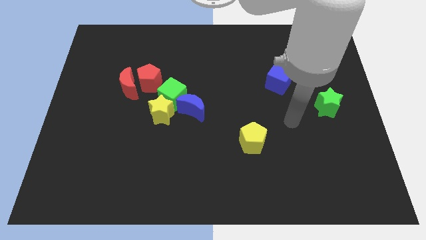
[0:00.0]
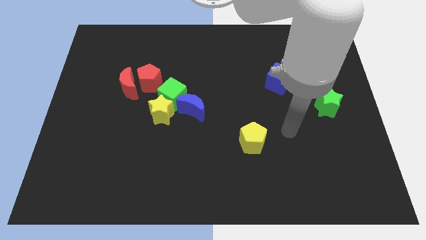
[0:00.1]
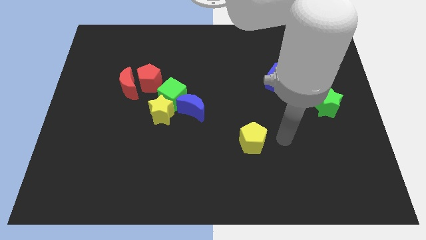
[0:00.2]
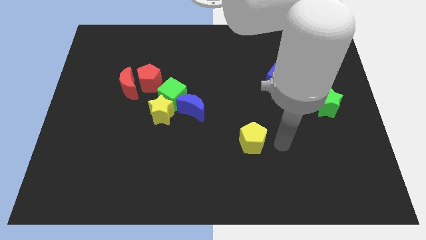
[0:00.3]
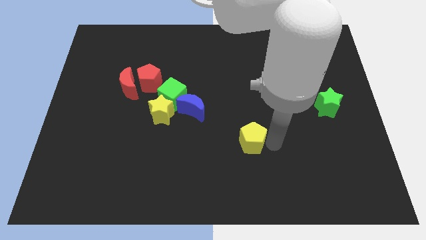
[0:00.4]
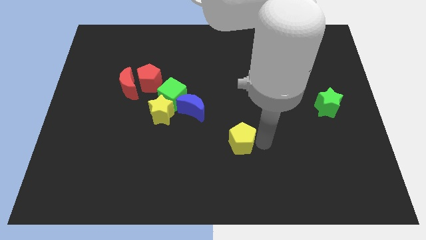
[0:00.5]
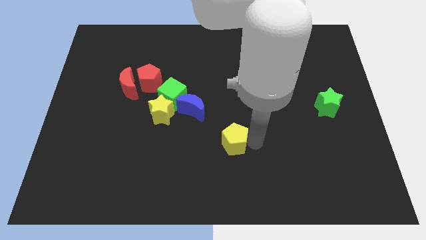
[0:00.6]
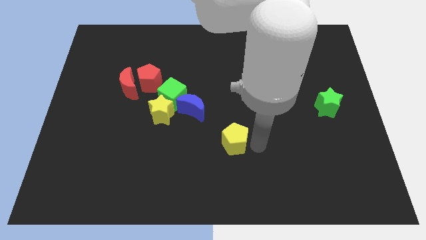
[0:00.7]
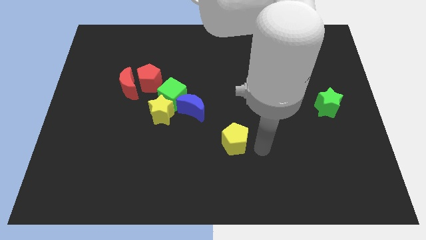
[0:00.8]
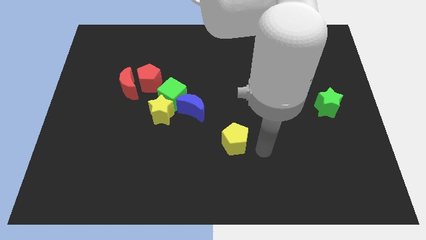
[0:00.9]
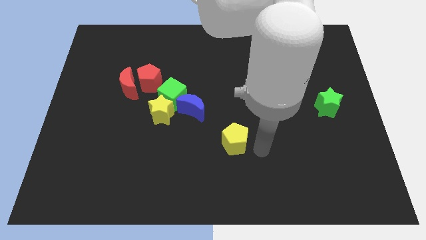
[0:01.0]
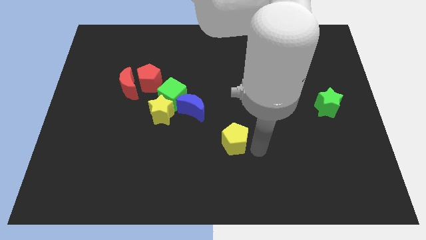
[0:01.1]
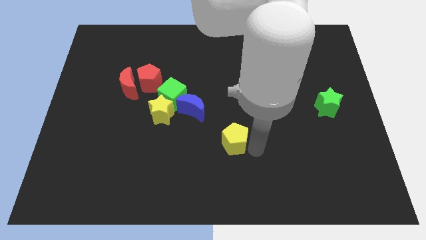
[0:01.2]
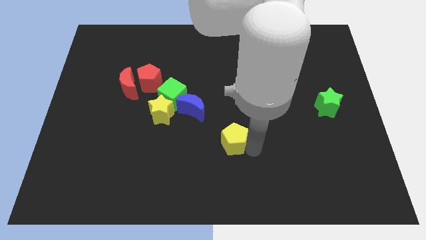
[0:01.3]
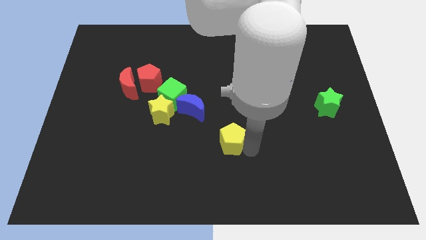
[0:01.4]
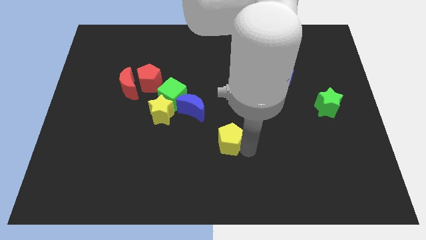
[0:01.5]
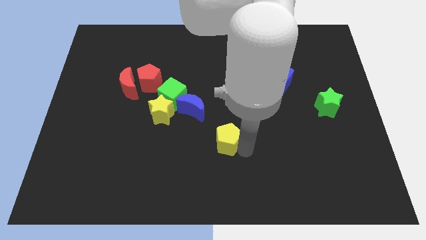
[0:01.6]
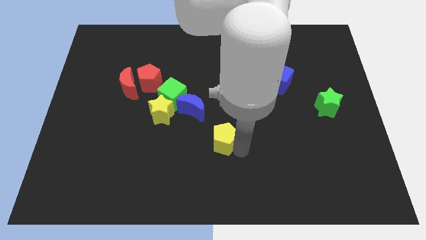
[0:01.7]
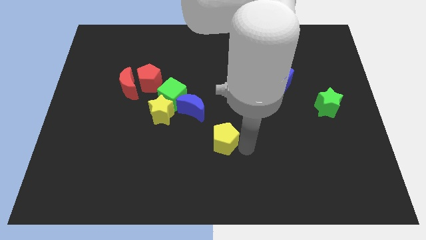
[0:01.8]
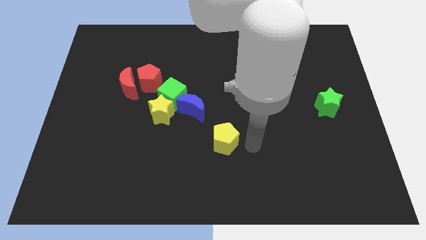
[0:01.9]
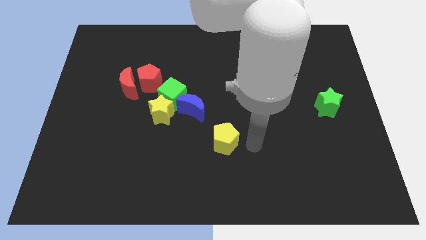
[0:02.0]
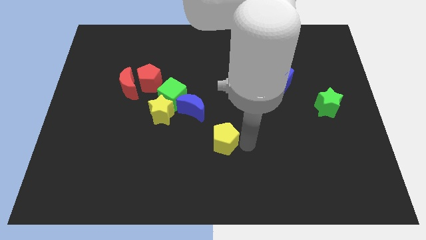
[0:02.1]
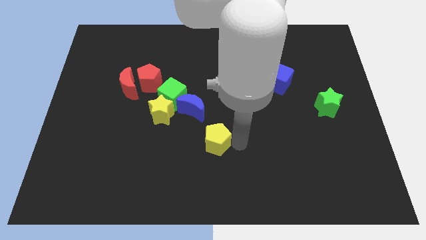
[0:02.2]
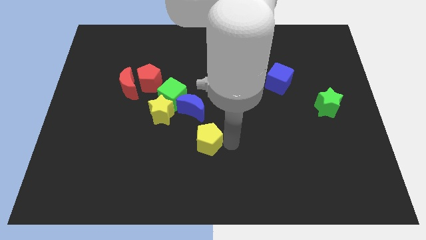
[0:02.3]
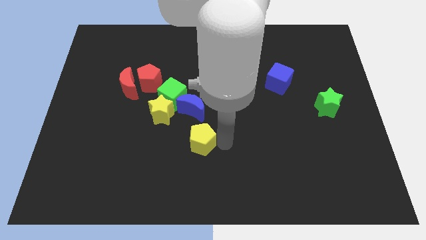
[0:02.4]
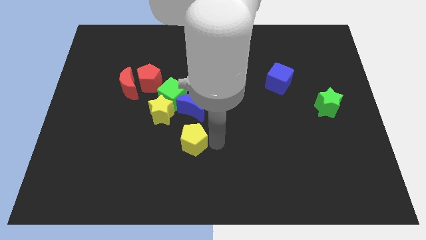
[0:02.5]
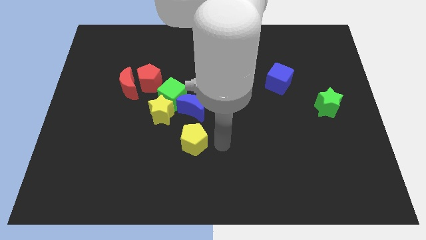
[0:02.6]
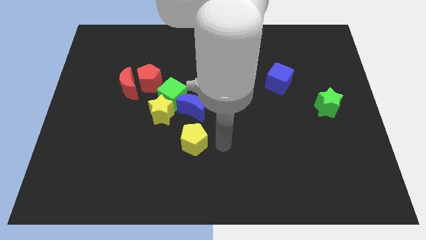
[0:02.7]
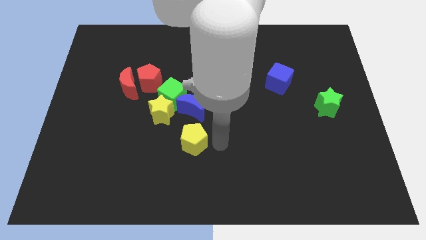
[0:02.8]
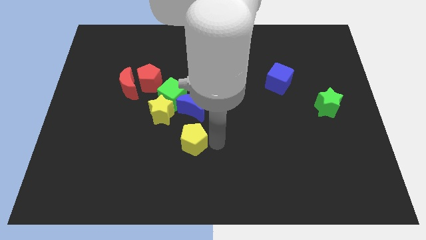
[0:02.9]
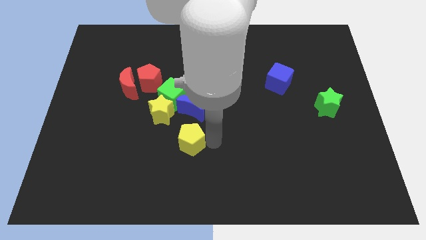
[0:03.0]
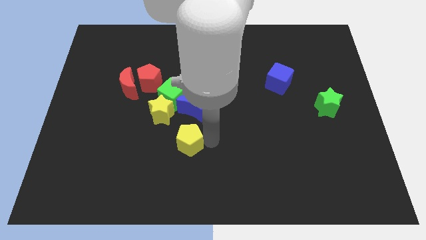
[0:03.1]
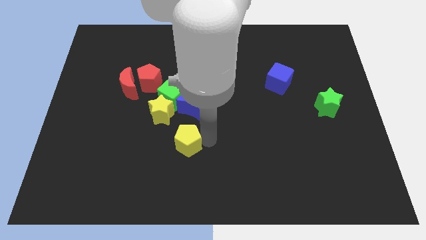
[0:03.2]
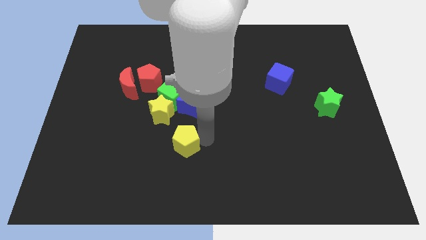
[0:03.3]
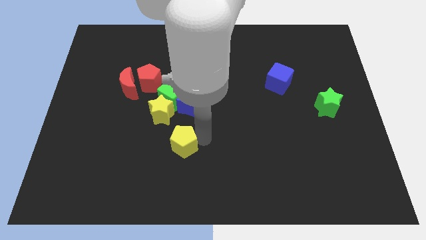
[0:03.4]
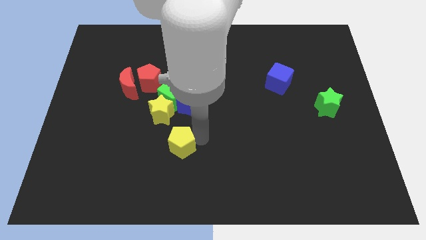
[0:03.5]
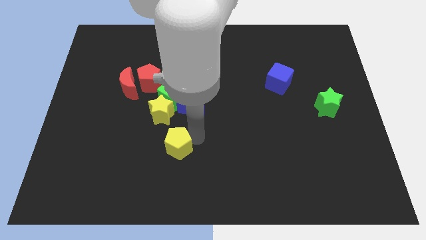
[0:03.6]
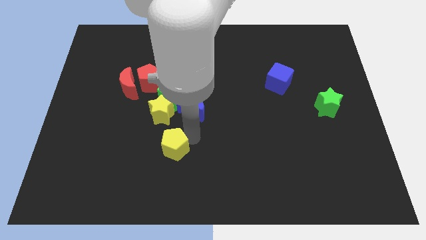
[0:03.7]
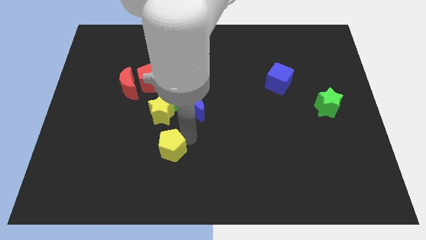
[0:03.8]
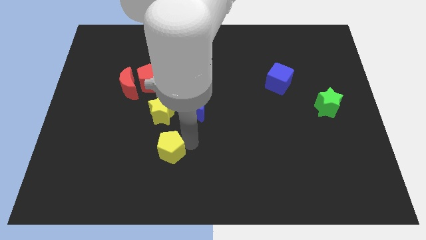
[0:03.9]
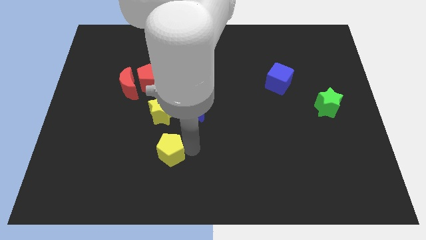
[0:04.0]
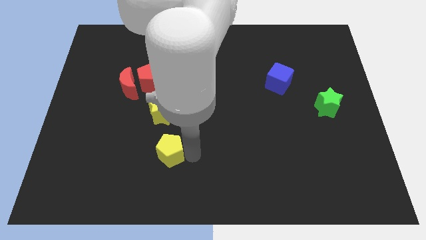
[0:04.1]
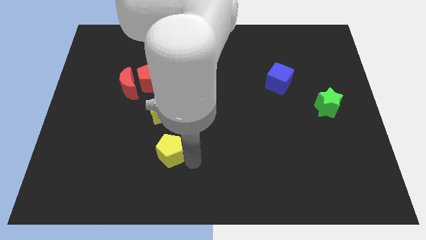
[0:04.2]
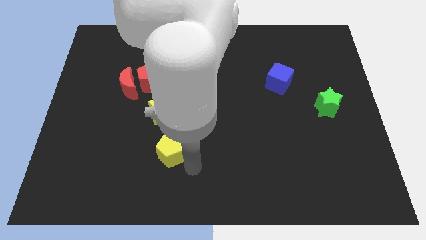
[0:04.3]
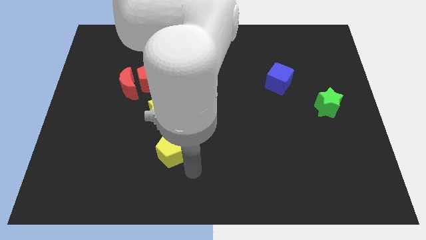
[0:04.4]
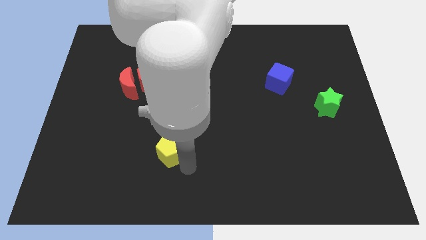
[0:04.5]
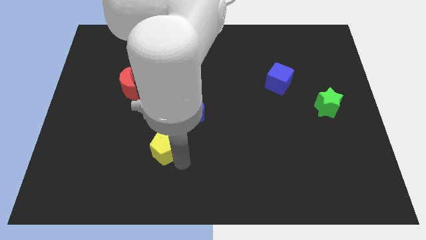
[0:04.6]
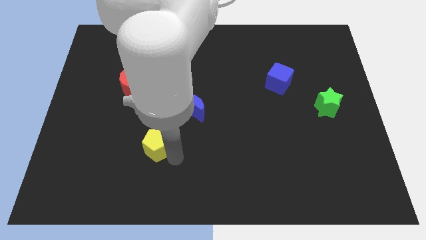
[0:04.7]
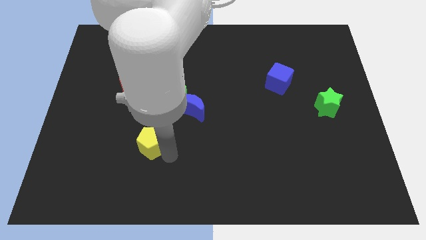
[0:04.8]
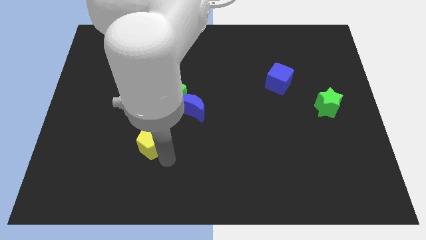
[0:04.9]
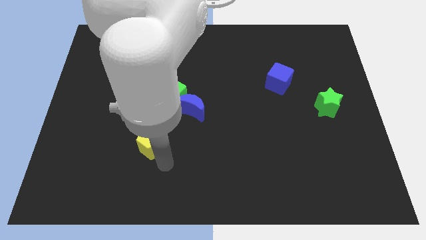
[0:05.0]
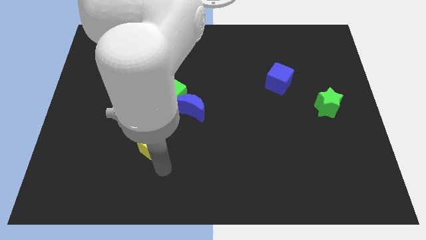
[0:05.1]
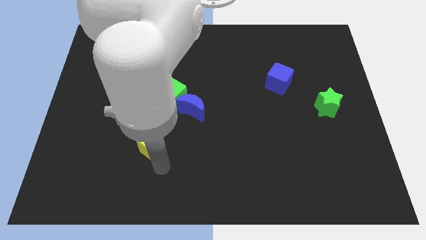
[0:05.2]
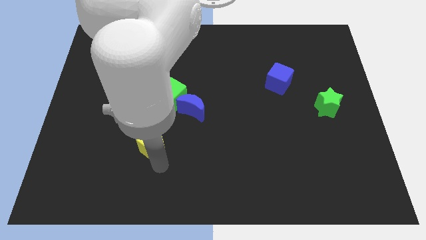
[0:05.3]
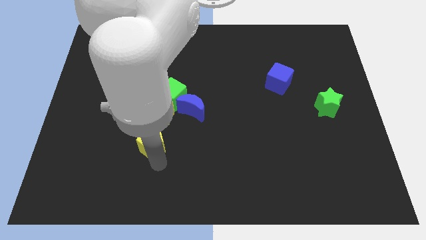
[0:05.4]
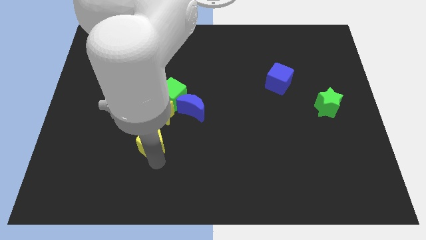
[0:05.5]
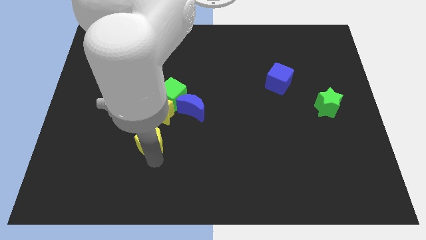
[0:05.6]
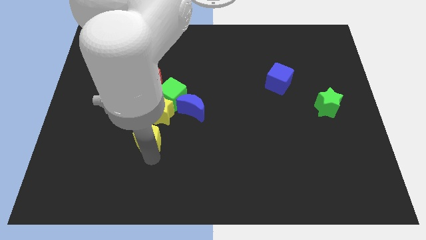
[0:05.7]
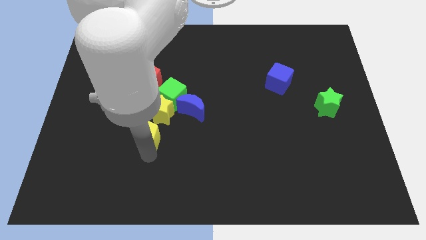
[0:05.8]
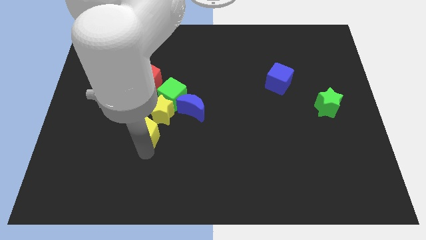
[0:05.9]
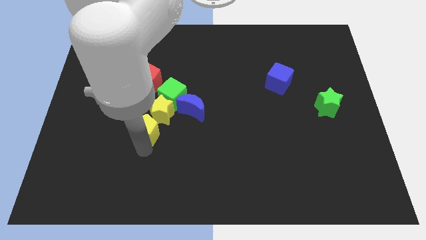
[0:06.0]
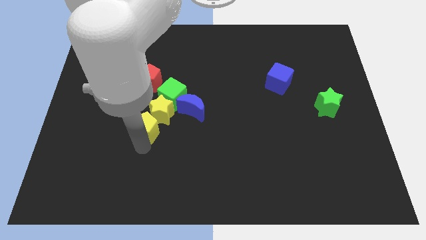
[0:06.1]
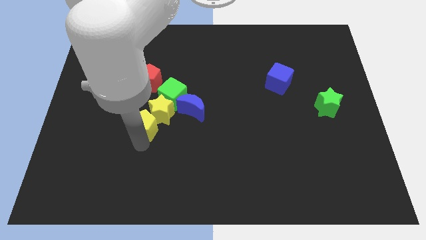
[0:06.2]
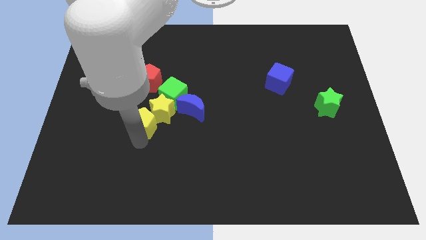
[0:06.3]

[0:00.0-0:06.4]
put the yellow pentagon just left of the blue moon

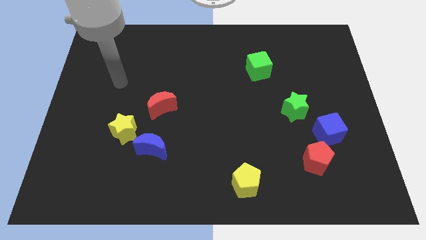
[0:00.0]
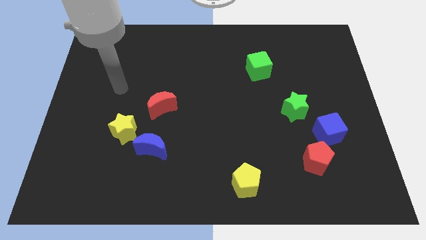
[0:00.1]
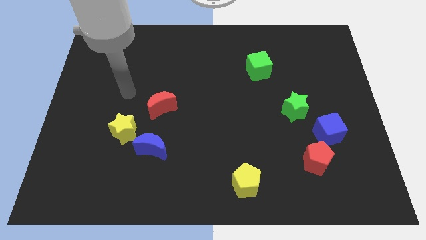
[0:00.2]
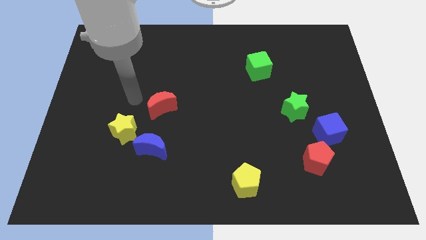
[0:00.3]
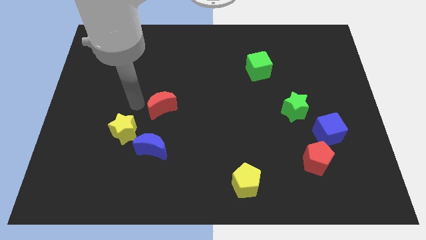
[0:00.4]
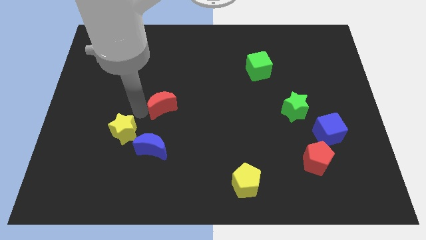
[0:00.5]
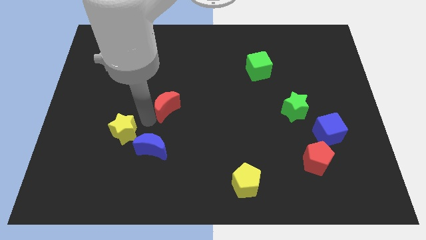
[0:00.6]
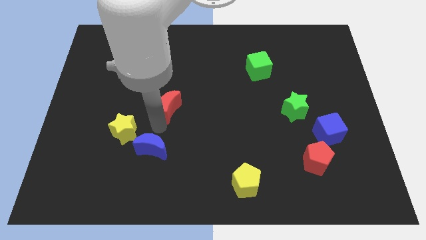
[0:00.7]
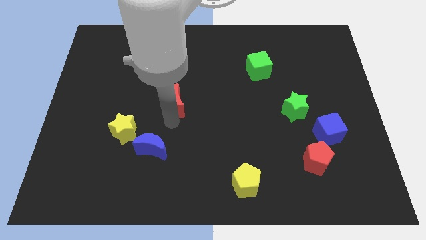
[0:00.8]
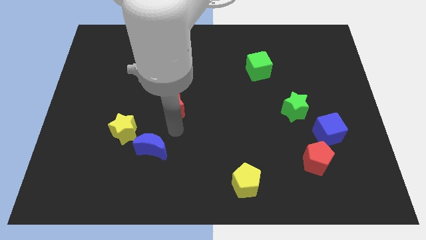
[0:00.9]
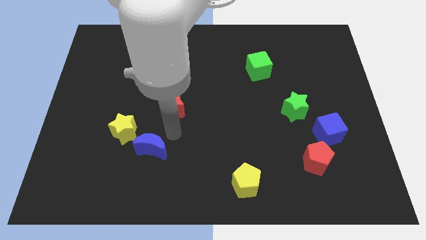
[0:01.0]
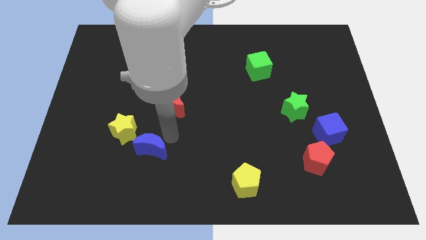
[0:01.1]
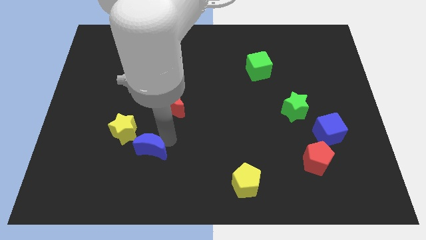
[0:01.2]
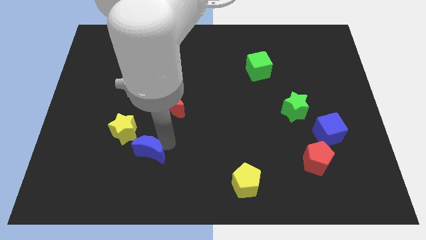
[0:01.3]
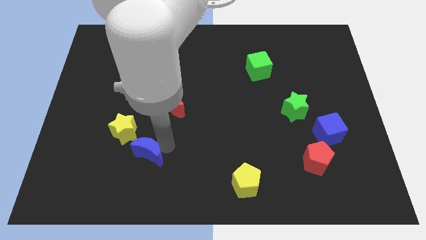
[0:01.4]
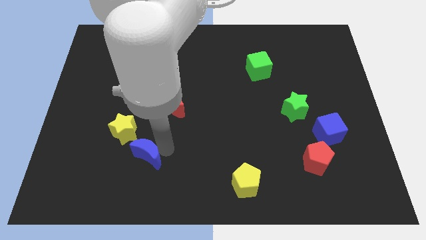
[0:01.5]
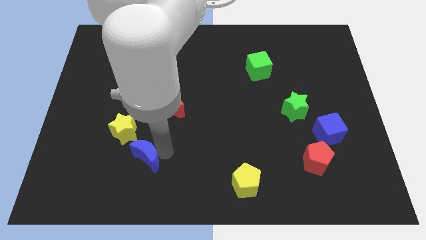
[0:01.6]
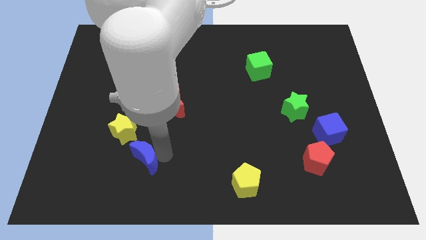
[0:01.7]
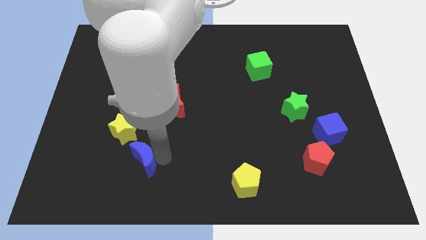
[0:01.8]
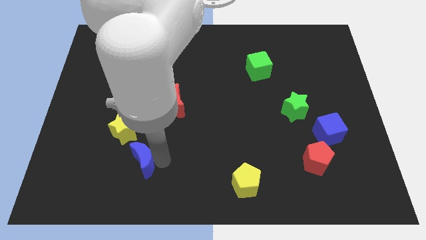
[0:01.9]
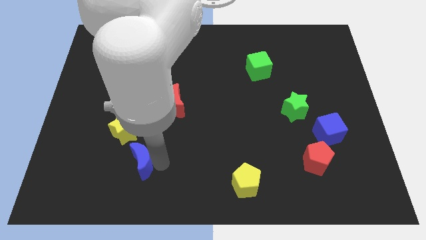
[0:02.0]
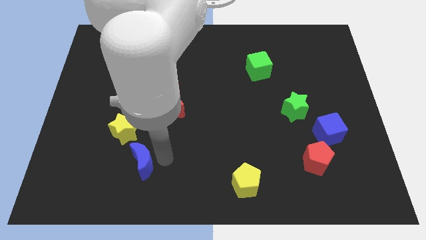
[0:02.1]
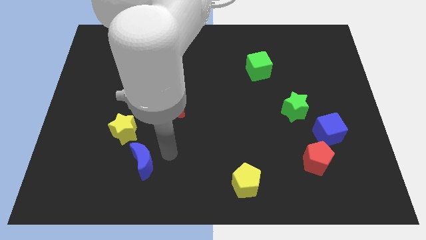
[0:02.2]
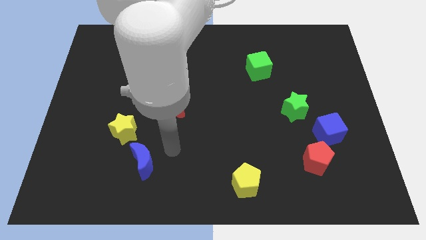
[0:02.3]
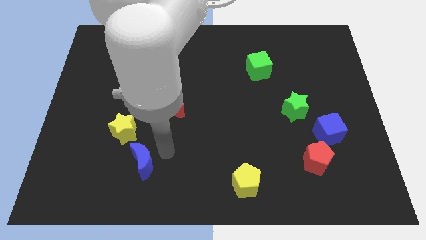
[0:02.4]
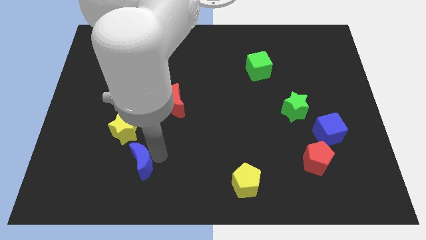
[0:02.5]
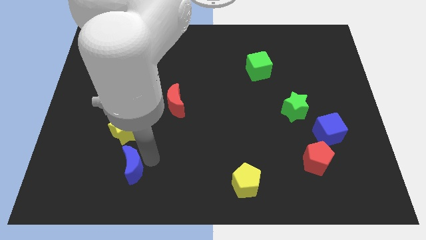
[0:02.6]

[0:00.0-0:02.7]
put the blue moon to the bottom side of the yellow star
